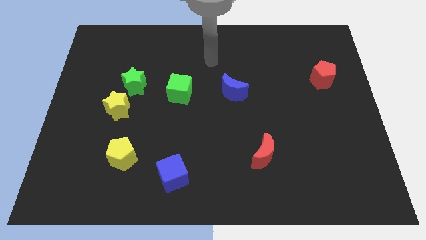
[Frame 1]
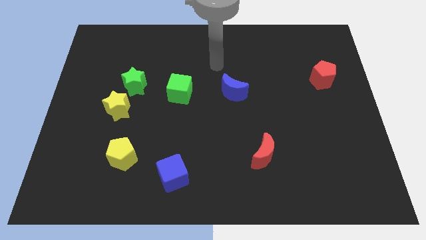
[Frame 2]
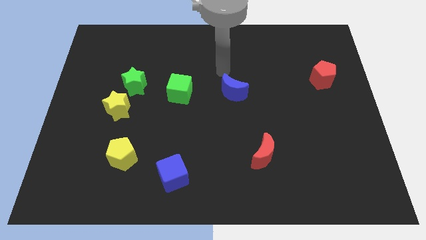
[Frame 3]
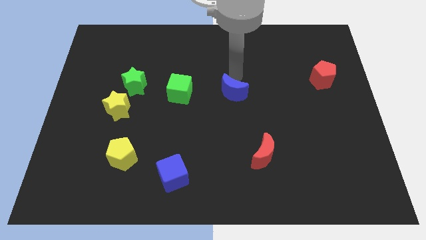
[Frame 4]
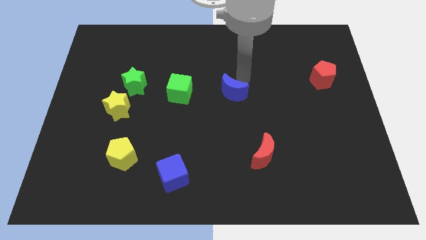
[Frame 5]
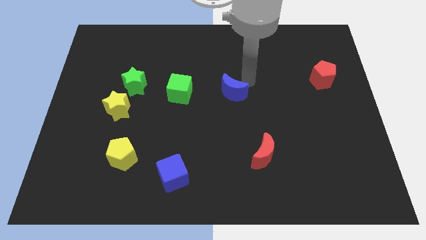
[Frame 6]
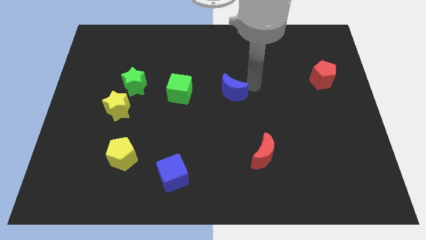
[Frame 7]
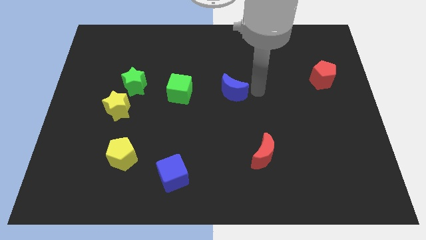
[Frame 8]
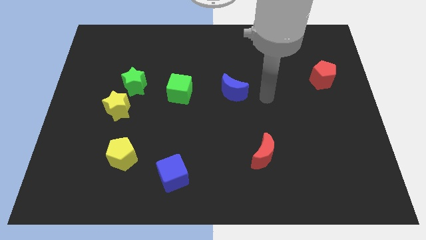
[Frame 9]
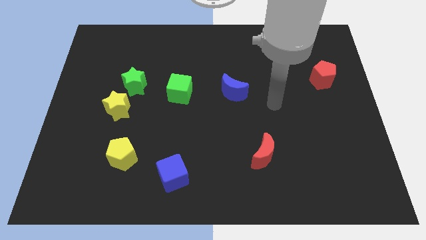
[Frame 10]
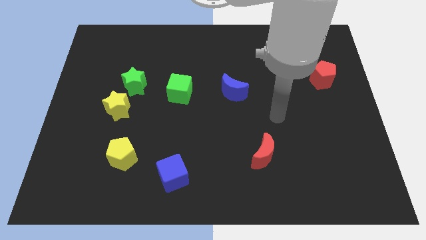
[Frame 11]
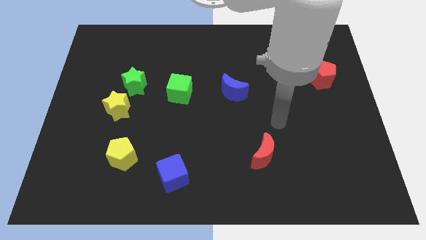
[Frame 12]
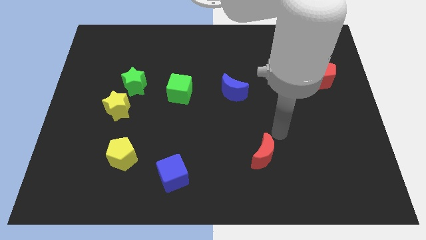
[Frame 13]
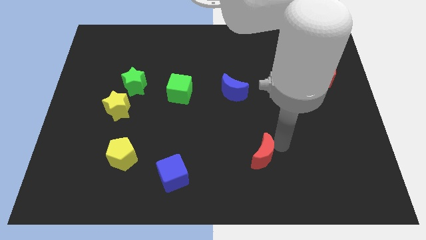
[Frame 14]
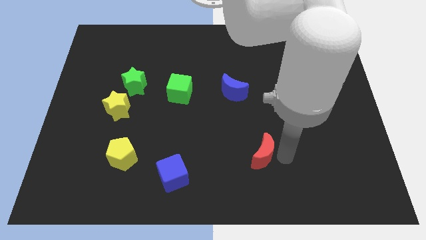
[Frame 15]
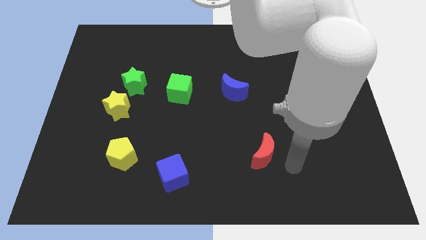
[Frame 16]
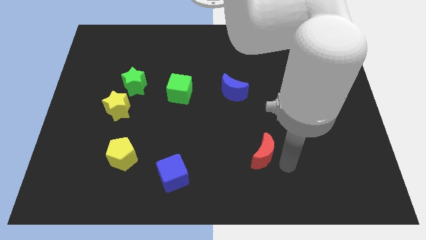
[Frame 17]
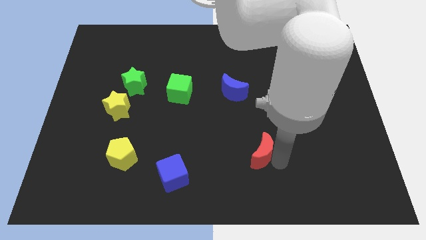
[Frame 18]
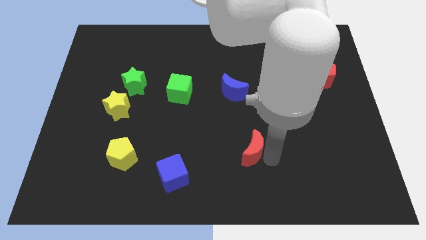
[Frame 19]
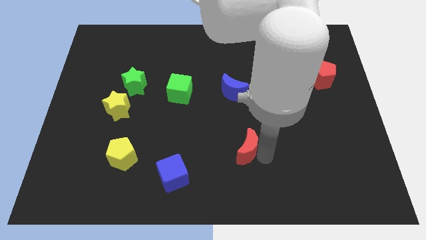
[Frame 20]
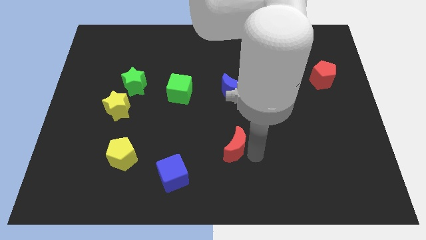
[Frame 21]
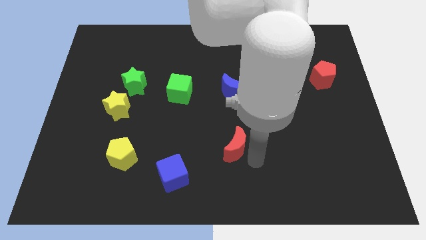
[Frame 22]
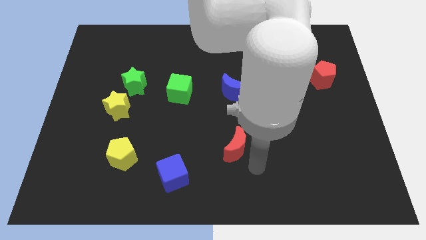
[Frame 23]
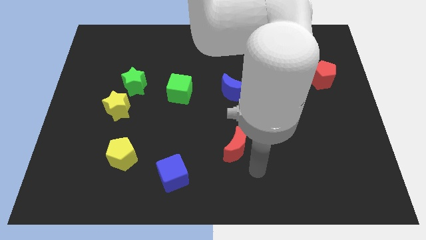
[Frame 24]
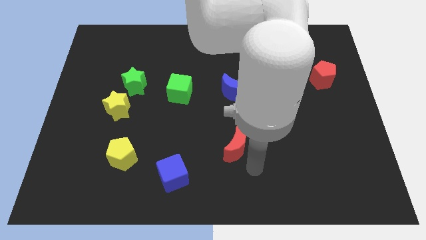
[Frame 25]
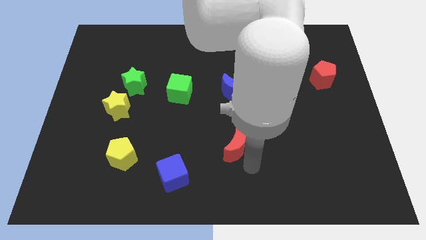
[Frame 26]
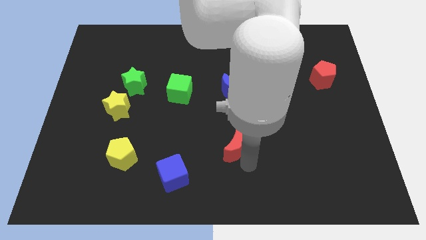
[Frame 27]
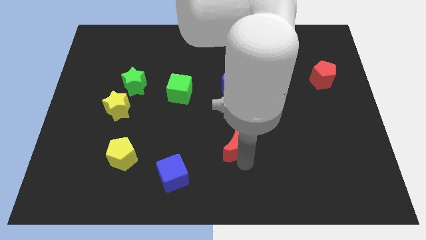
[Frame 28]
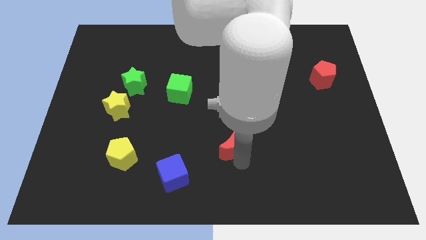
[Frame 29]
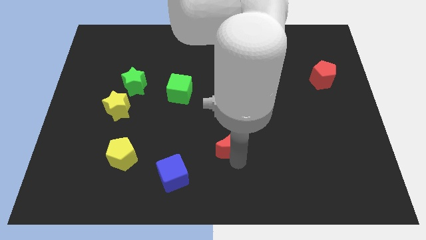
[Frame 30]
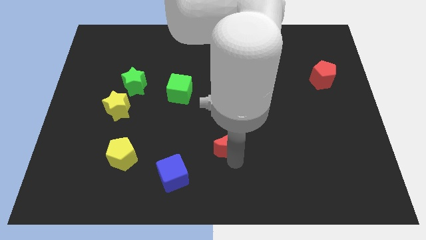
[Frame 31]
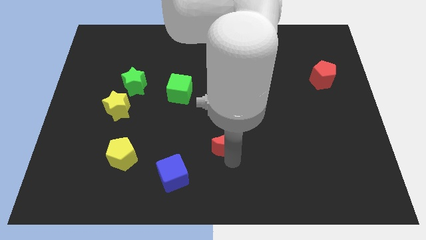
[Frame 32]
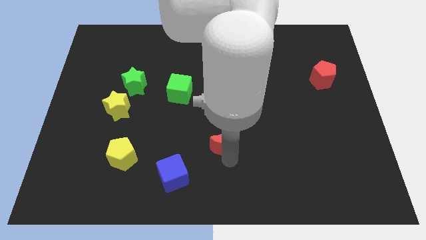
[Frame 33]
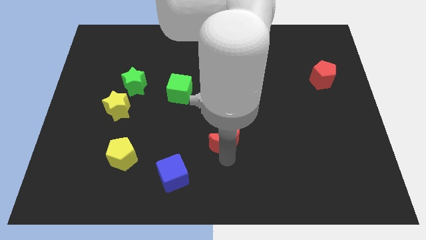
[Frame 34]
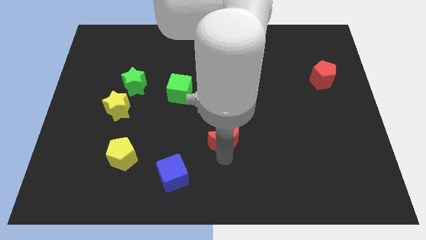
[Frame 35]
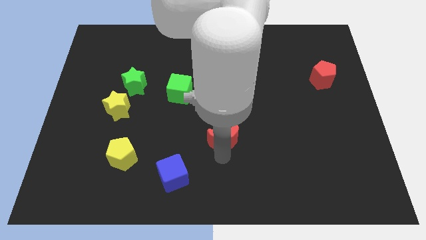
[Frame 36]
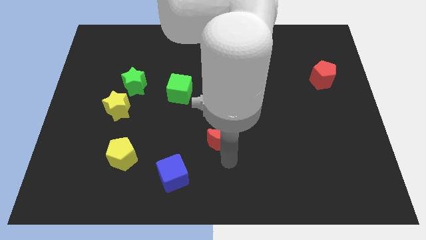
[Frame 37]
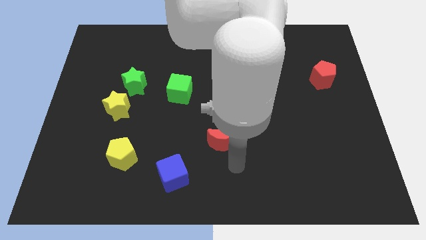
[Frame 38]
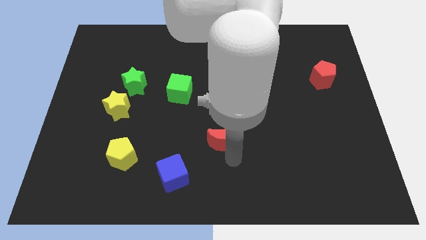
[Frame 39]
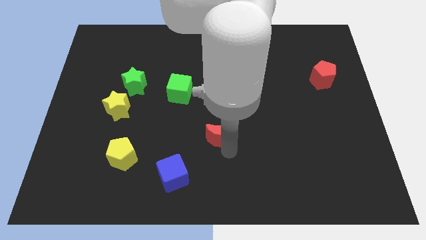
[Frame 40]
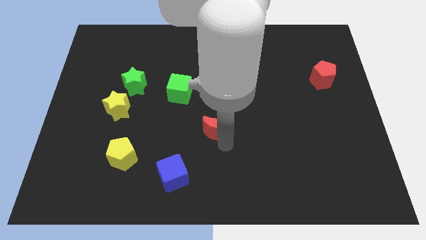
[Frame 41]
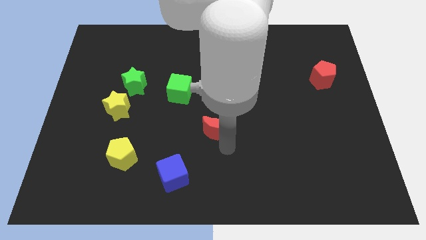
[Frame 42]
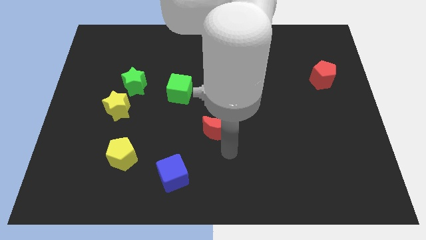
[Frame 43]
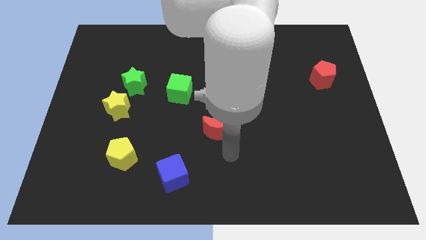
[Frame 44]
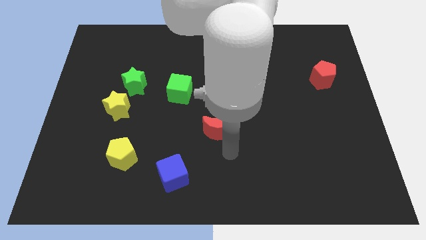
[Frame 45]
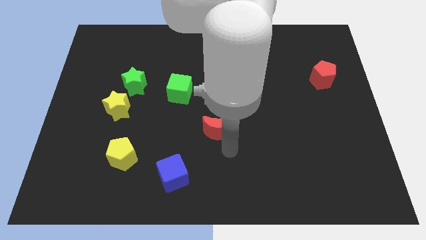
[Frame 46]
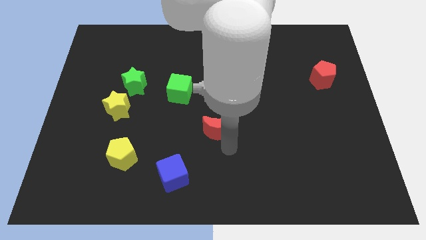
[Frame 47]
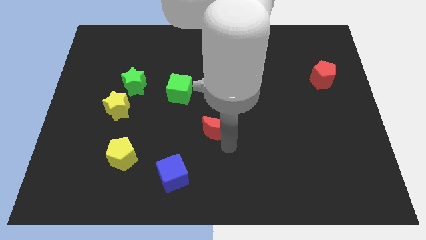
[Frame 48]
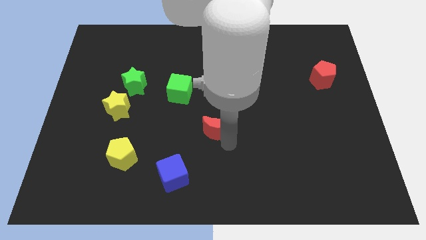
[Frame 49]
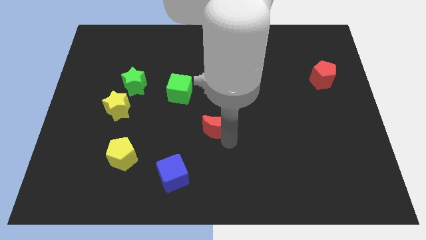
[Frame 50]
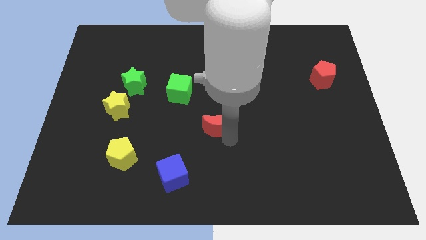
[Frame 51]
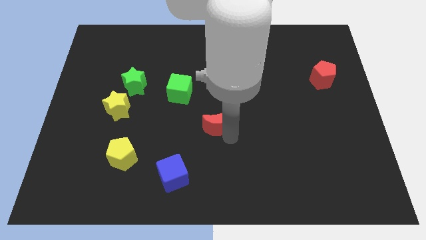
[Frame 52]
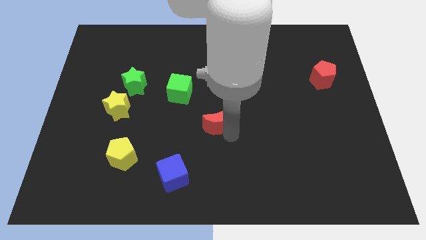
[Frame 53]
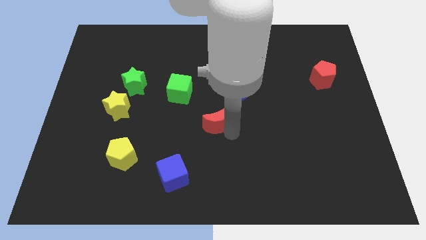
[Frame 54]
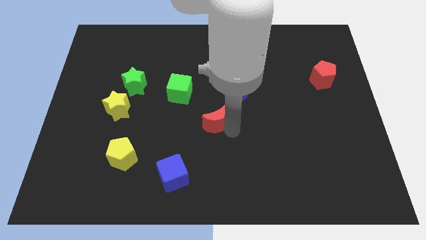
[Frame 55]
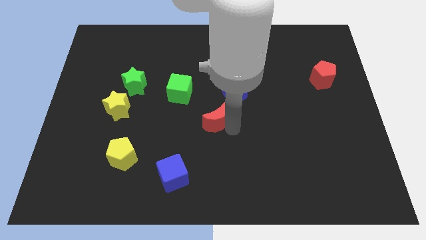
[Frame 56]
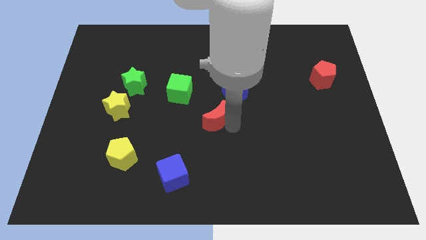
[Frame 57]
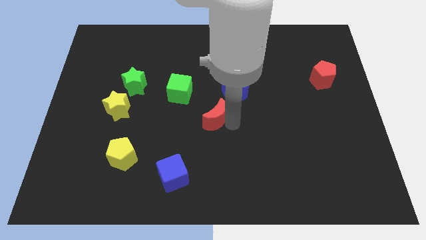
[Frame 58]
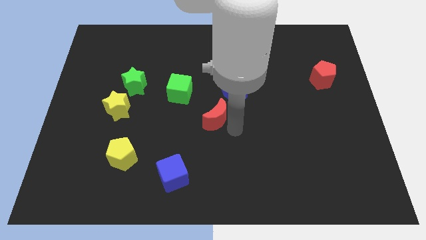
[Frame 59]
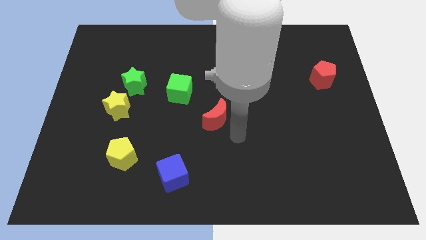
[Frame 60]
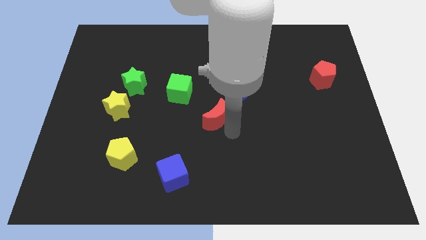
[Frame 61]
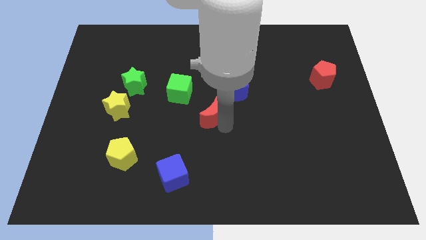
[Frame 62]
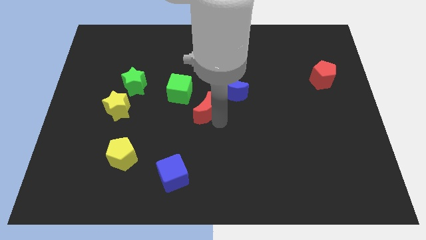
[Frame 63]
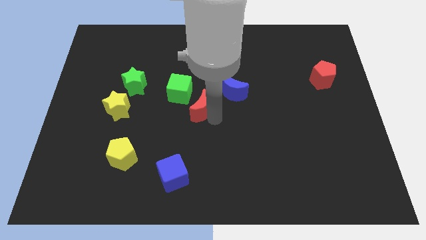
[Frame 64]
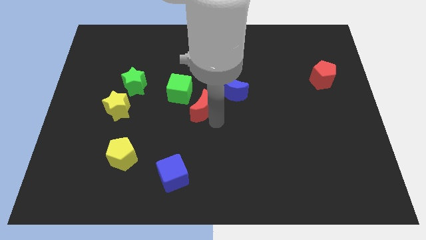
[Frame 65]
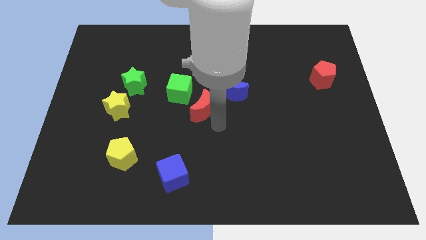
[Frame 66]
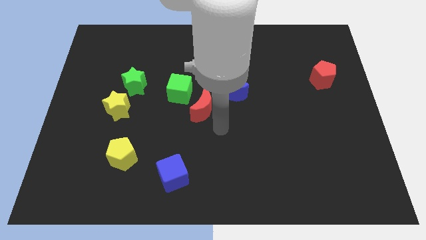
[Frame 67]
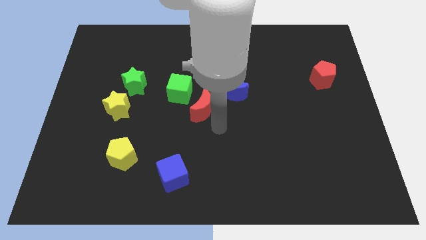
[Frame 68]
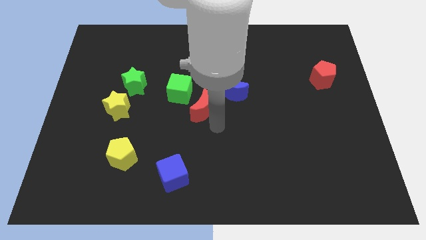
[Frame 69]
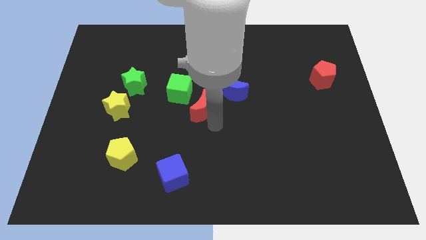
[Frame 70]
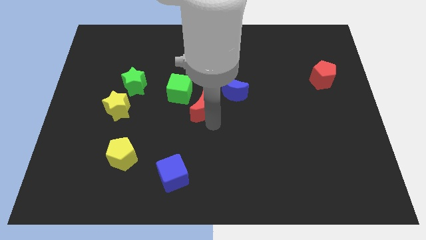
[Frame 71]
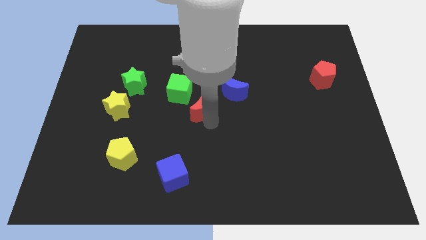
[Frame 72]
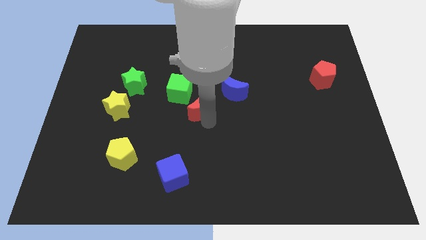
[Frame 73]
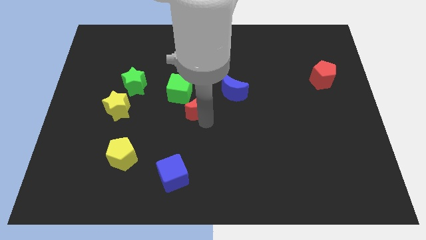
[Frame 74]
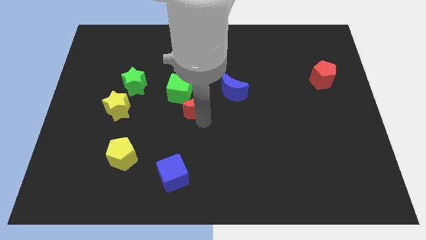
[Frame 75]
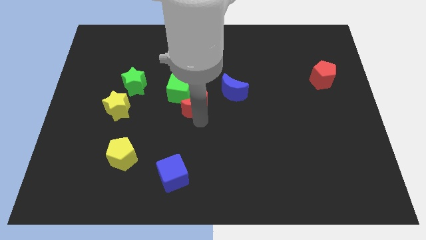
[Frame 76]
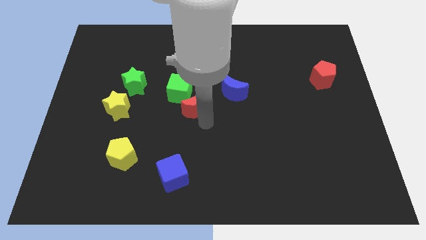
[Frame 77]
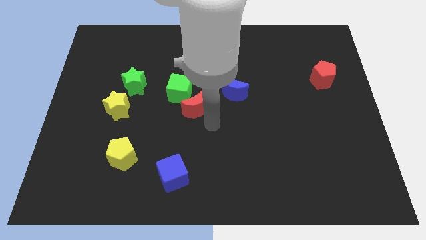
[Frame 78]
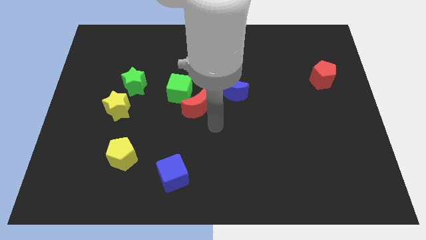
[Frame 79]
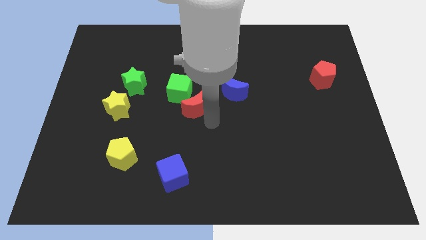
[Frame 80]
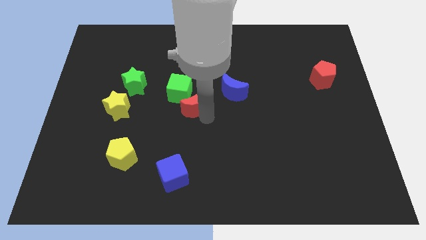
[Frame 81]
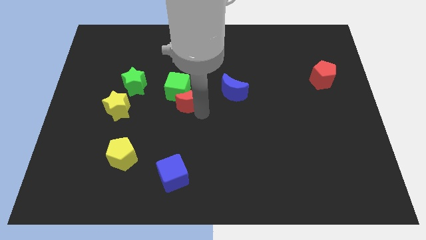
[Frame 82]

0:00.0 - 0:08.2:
push the red moon to the green cube
